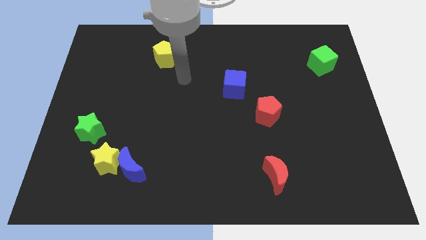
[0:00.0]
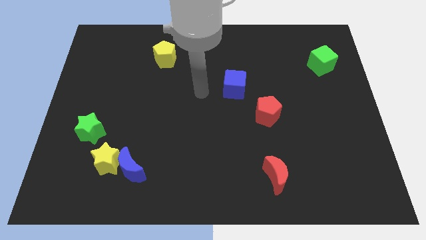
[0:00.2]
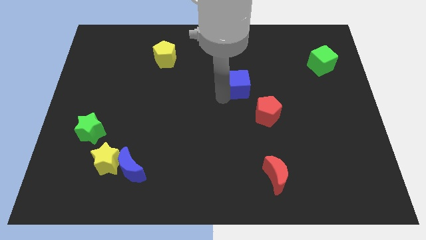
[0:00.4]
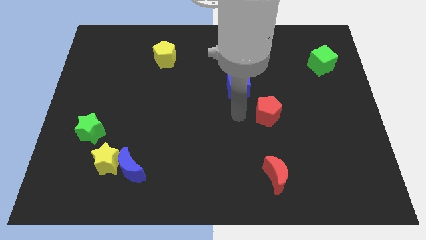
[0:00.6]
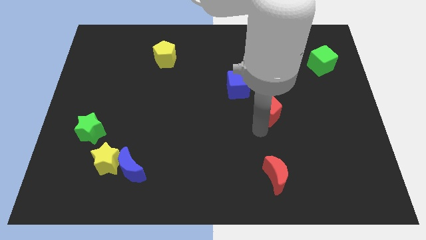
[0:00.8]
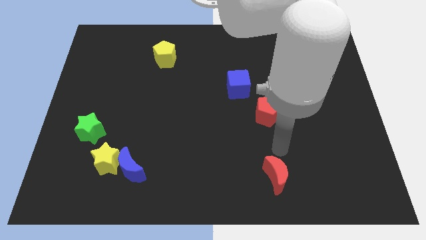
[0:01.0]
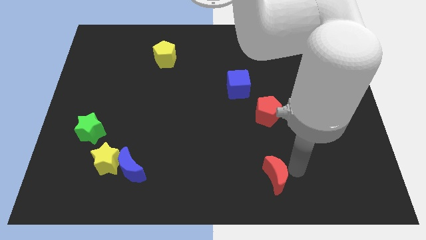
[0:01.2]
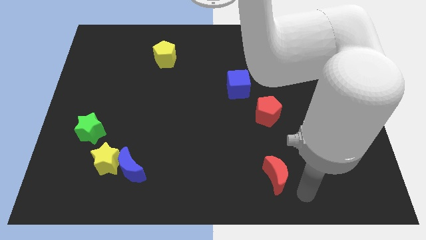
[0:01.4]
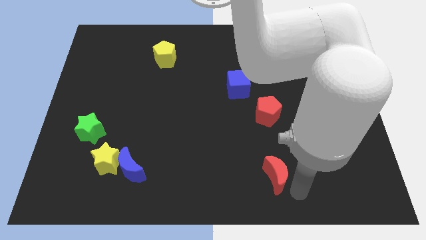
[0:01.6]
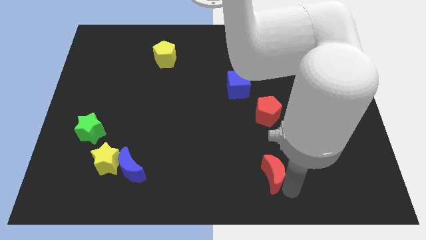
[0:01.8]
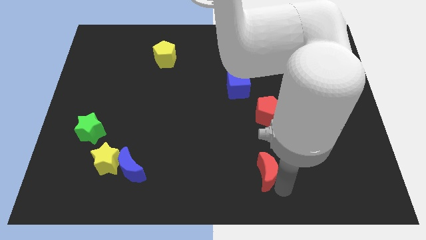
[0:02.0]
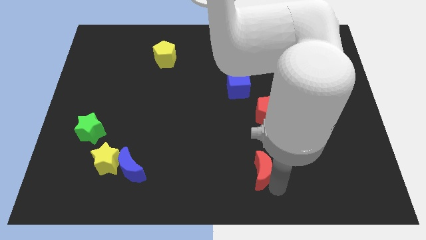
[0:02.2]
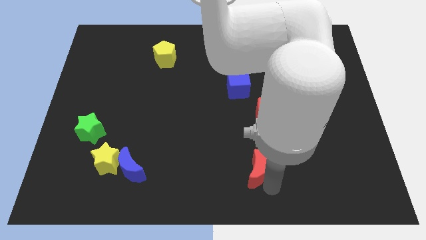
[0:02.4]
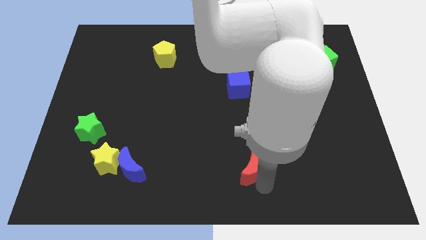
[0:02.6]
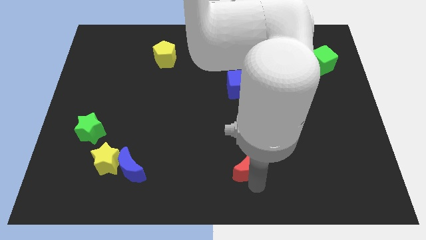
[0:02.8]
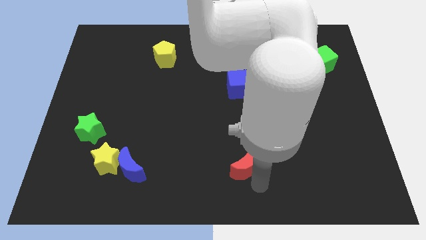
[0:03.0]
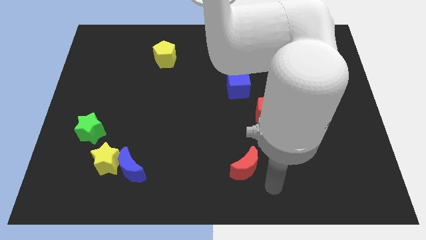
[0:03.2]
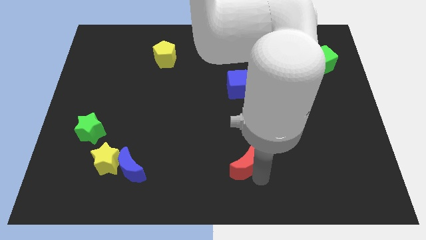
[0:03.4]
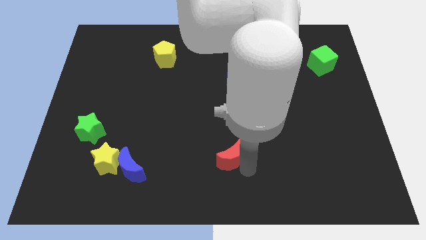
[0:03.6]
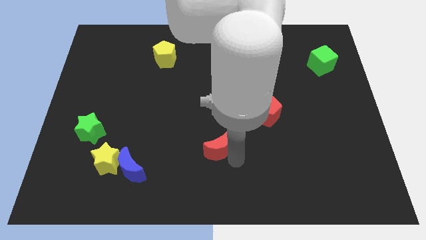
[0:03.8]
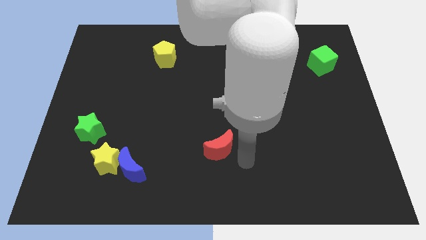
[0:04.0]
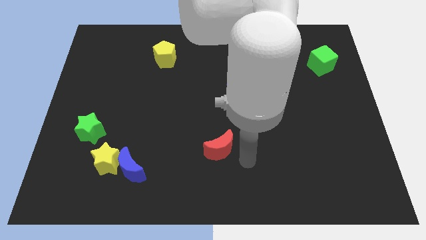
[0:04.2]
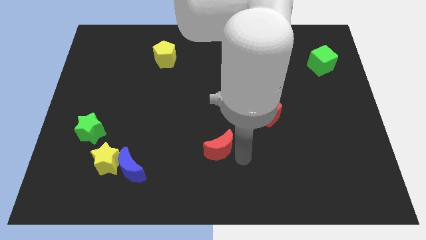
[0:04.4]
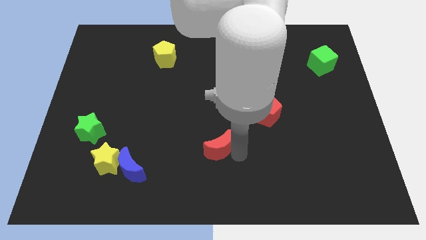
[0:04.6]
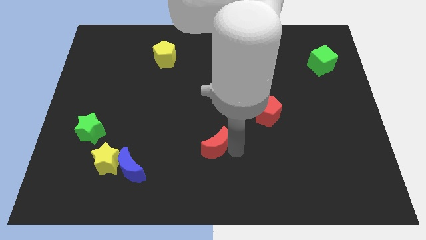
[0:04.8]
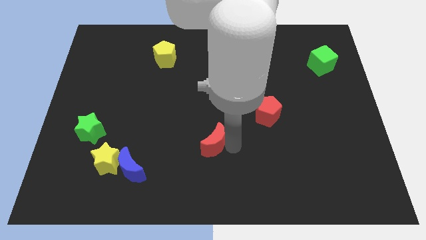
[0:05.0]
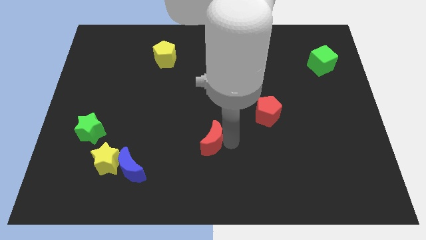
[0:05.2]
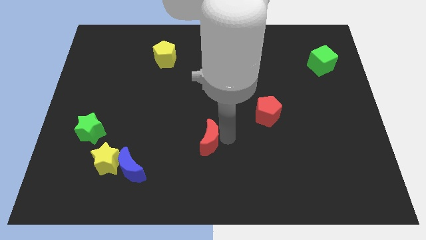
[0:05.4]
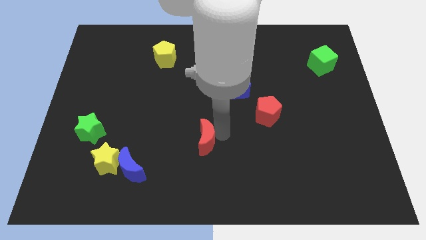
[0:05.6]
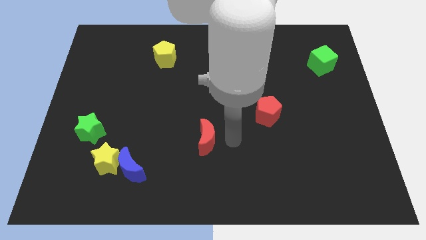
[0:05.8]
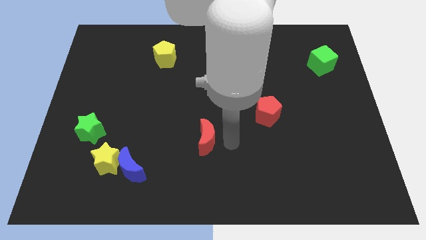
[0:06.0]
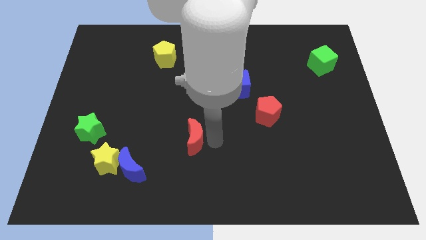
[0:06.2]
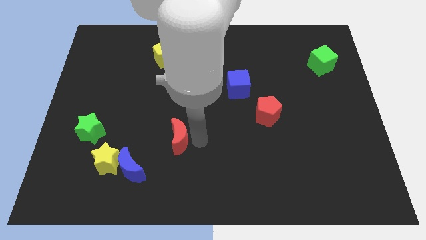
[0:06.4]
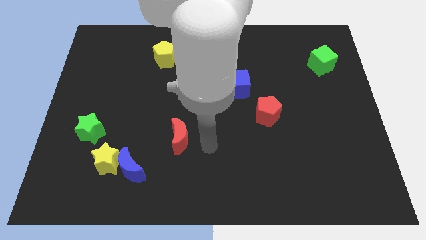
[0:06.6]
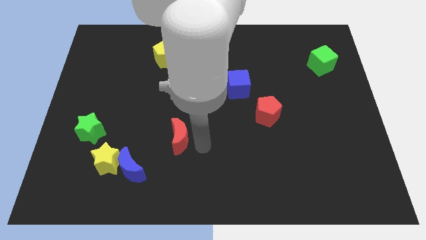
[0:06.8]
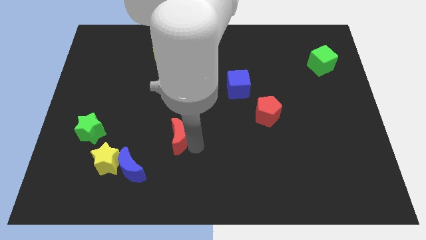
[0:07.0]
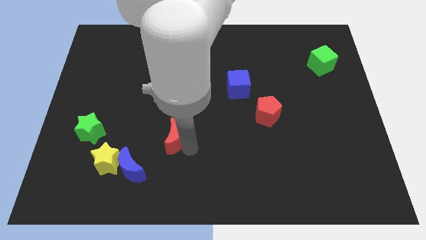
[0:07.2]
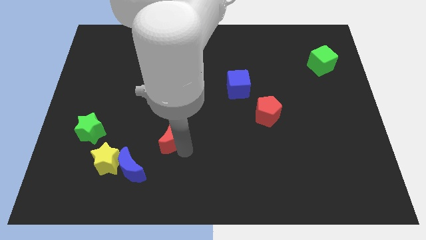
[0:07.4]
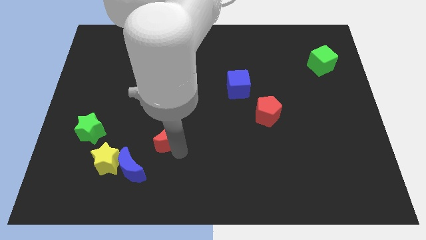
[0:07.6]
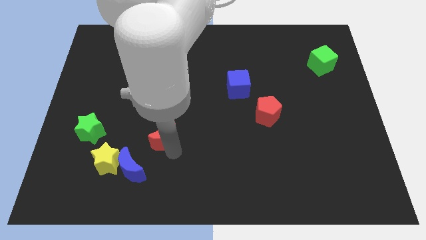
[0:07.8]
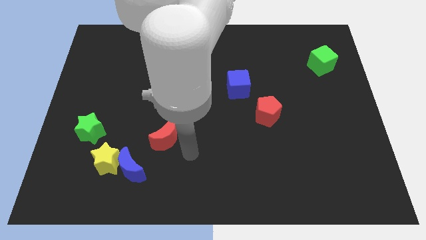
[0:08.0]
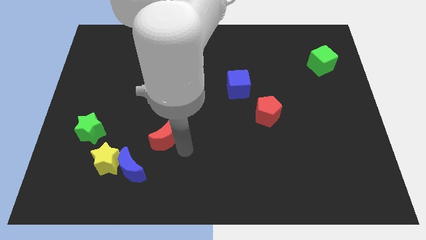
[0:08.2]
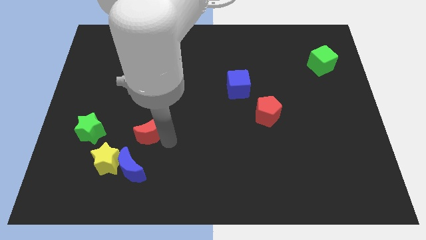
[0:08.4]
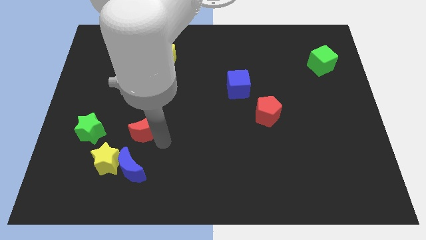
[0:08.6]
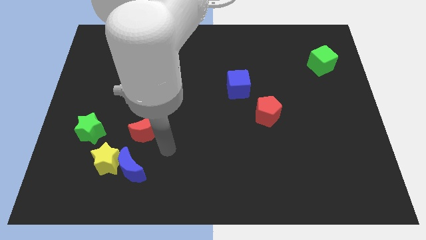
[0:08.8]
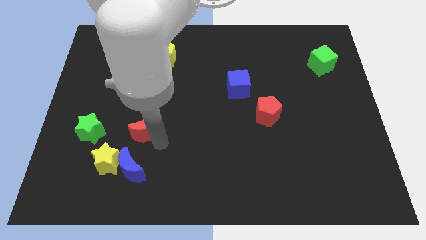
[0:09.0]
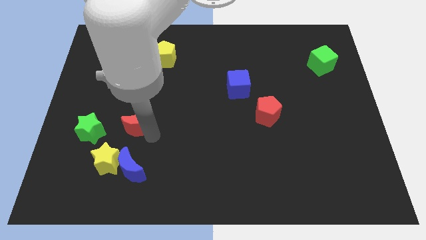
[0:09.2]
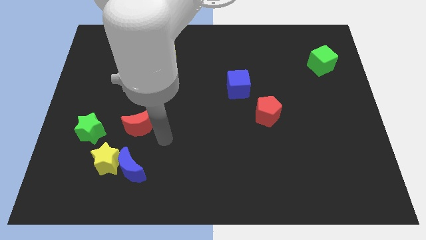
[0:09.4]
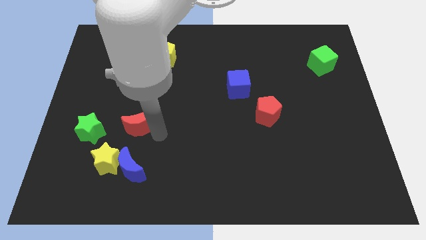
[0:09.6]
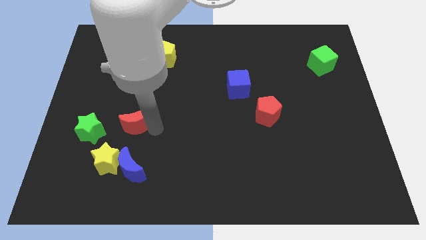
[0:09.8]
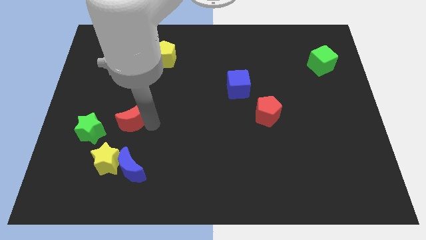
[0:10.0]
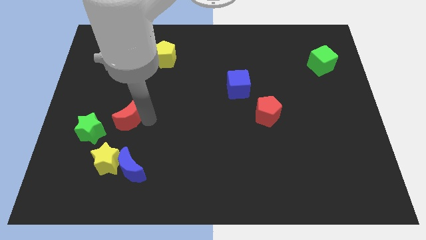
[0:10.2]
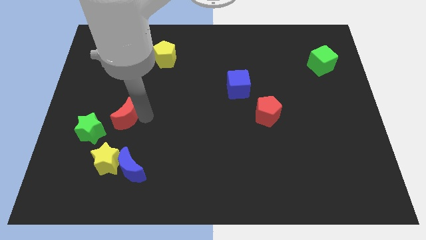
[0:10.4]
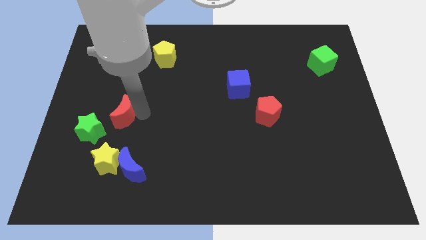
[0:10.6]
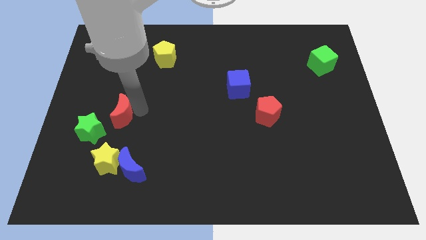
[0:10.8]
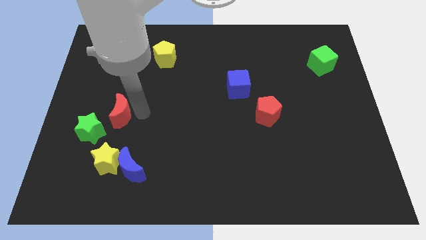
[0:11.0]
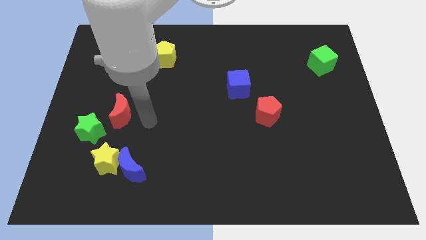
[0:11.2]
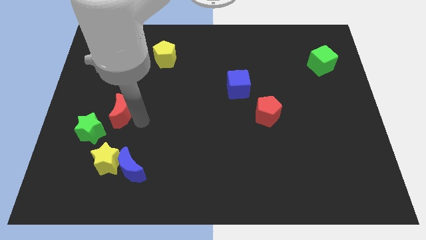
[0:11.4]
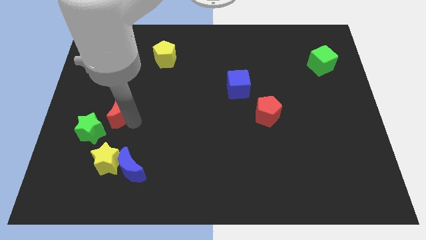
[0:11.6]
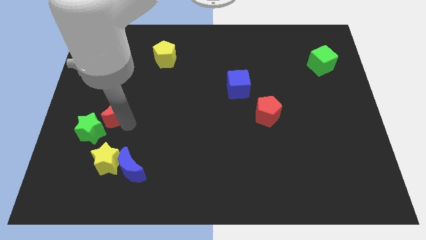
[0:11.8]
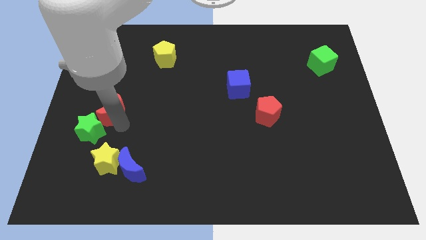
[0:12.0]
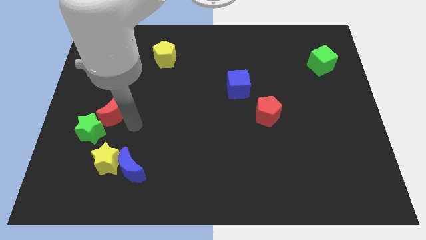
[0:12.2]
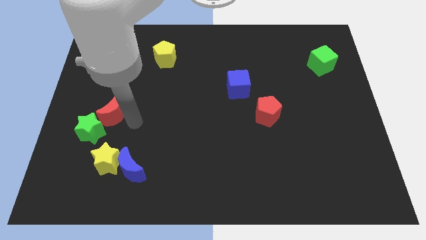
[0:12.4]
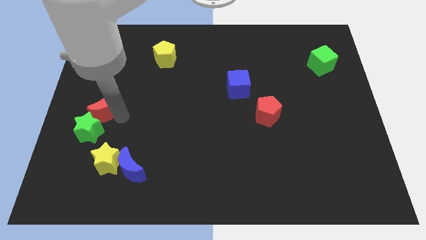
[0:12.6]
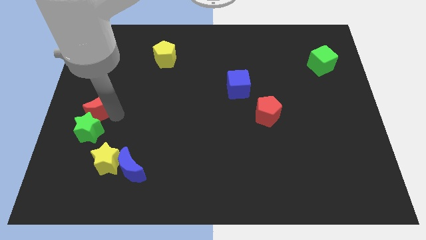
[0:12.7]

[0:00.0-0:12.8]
push the red moon to the left side of the board
